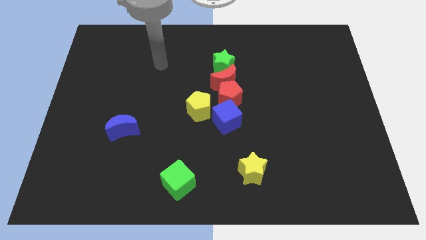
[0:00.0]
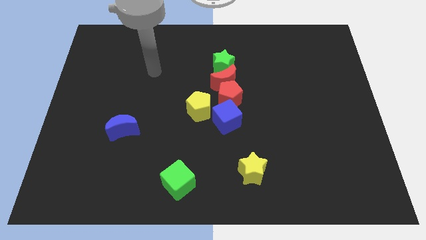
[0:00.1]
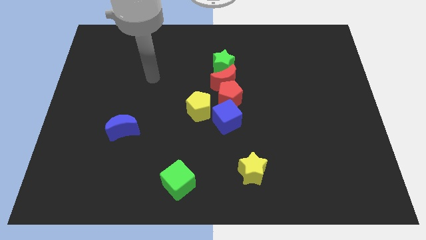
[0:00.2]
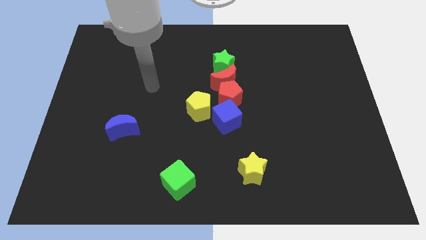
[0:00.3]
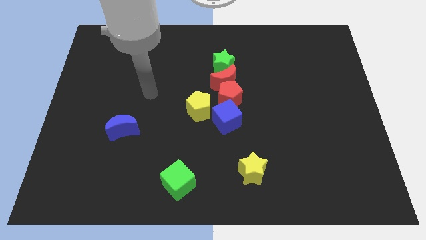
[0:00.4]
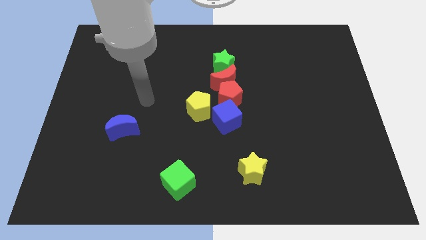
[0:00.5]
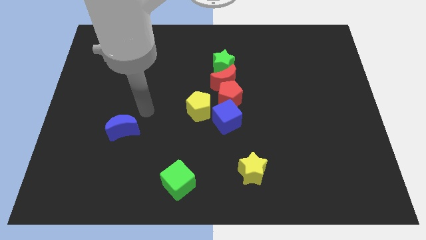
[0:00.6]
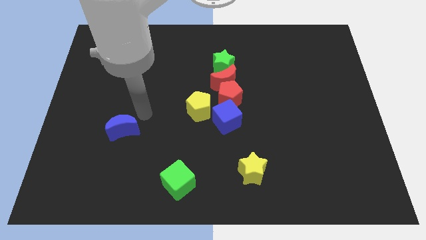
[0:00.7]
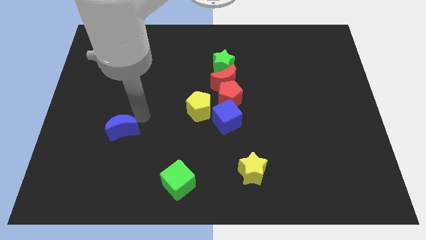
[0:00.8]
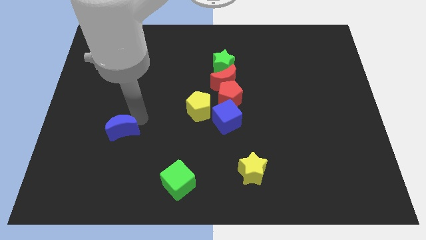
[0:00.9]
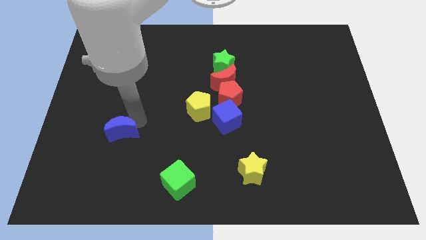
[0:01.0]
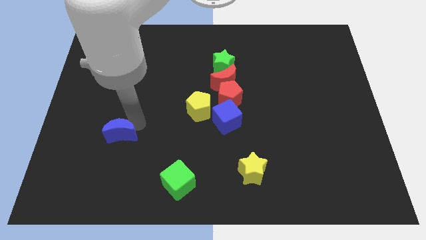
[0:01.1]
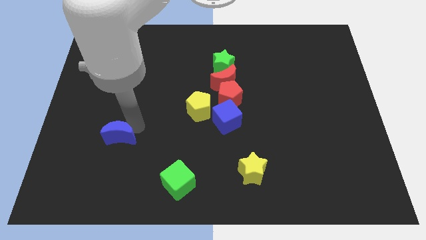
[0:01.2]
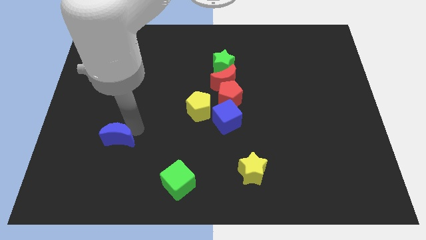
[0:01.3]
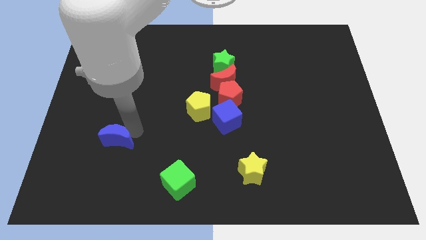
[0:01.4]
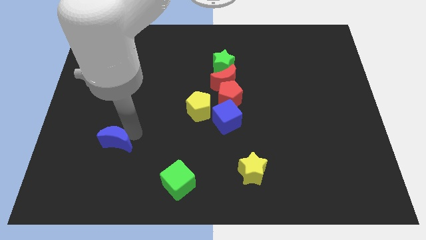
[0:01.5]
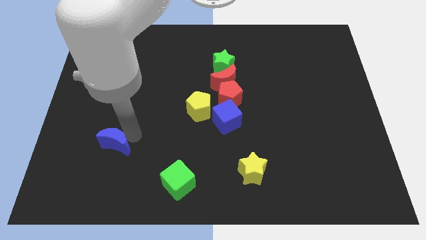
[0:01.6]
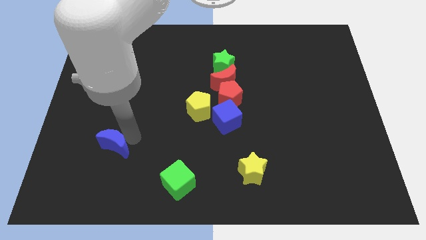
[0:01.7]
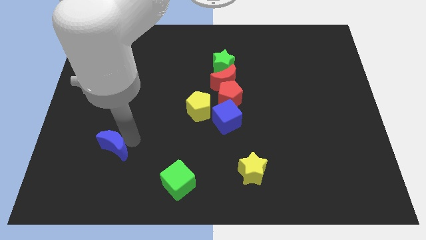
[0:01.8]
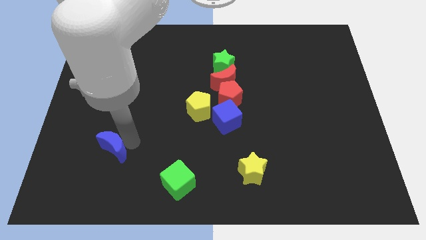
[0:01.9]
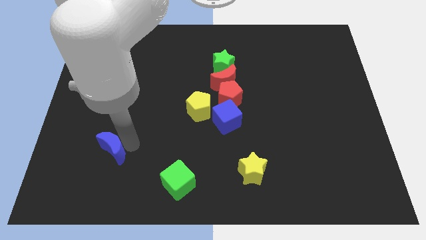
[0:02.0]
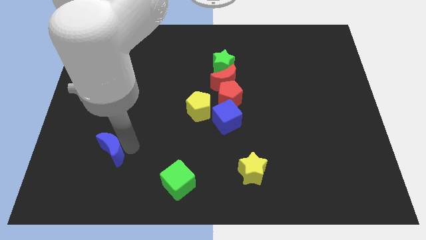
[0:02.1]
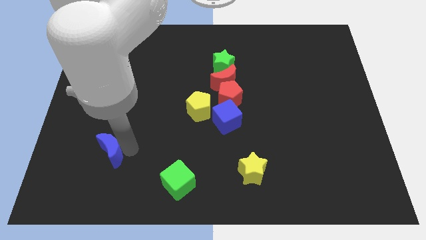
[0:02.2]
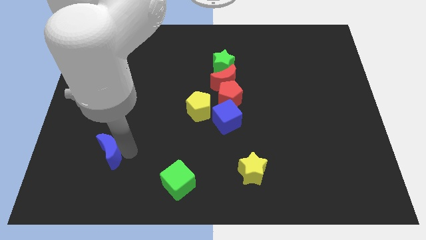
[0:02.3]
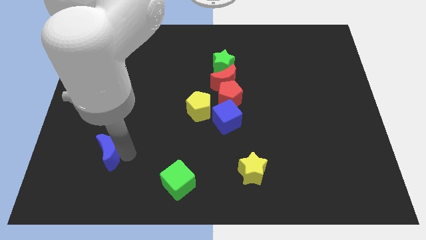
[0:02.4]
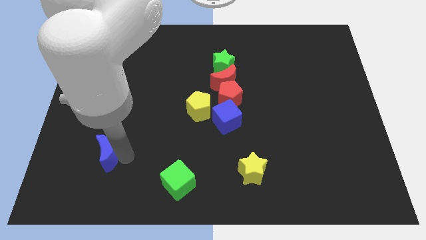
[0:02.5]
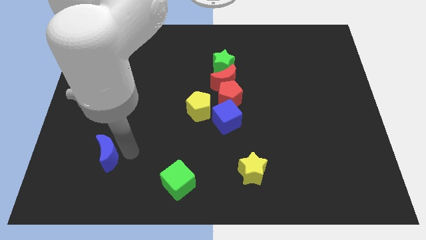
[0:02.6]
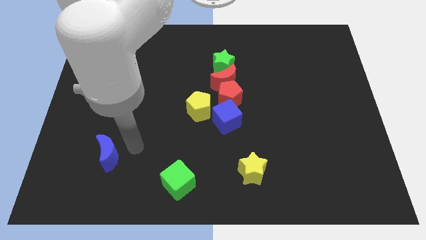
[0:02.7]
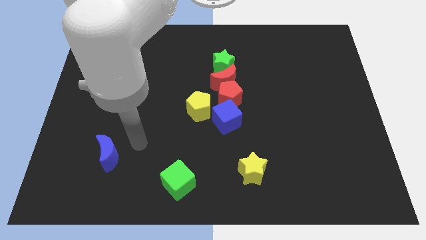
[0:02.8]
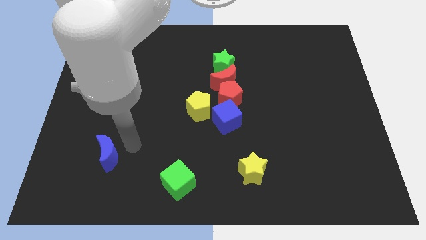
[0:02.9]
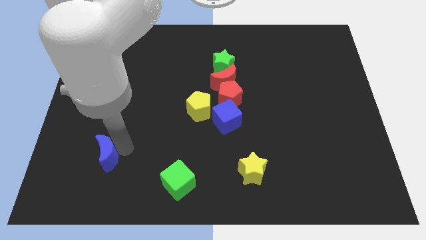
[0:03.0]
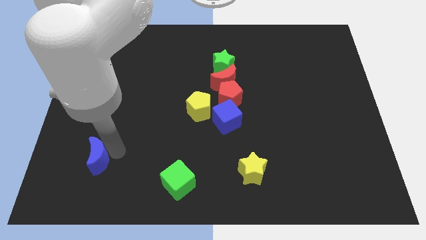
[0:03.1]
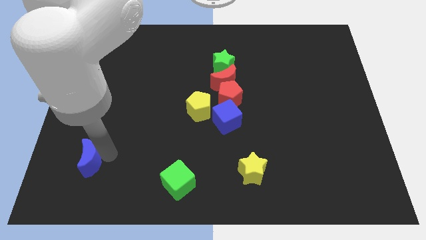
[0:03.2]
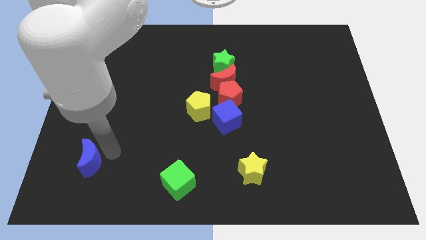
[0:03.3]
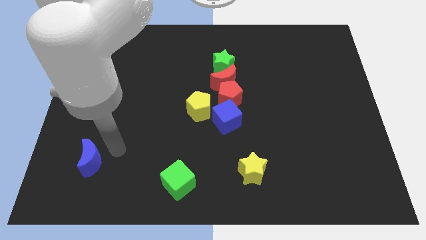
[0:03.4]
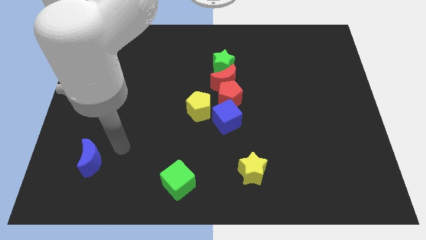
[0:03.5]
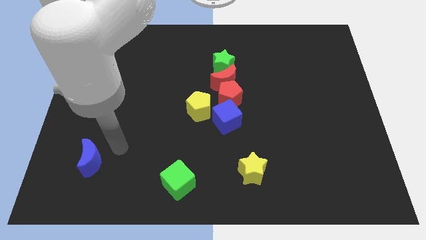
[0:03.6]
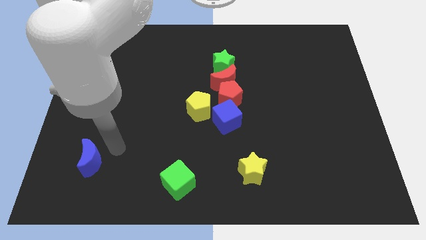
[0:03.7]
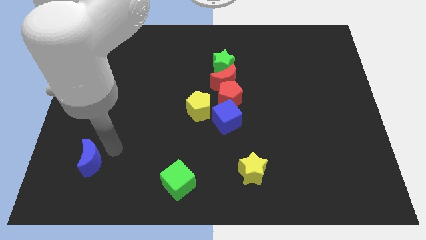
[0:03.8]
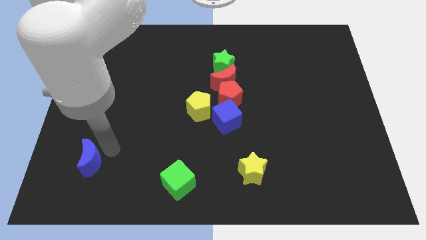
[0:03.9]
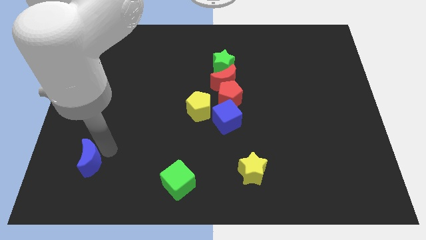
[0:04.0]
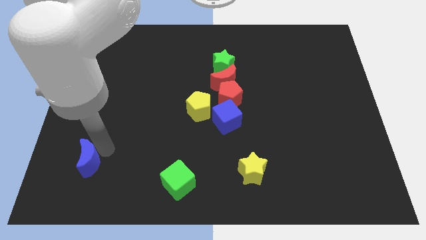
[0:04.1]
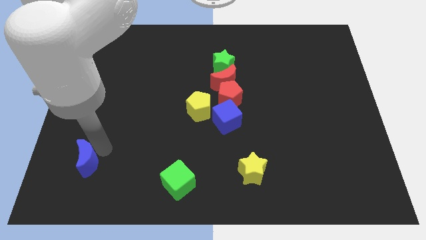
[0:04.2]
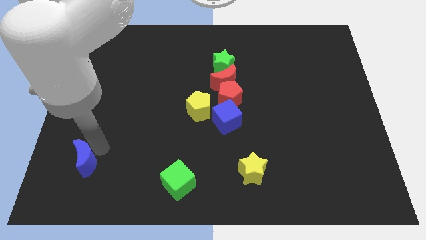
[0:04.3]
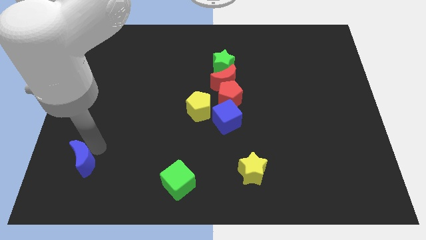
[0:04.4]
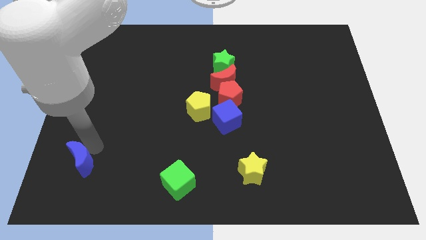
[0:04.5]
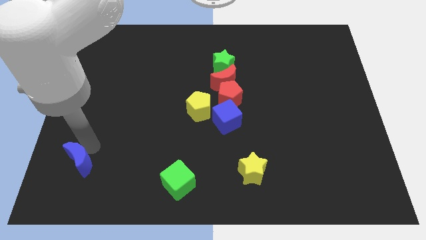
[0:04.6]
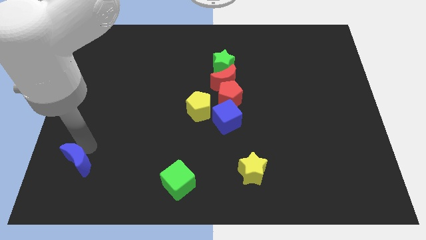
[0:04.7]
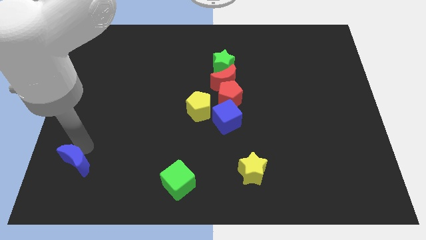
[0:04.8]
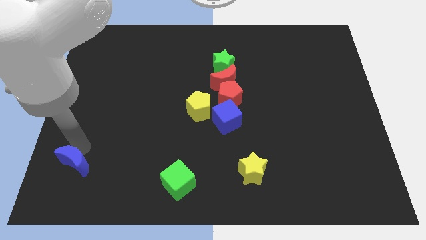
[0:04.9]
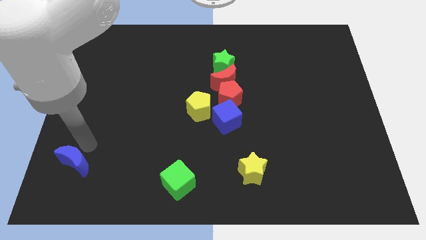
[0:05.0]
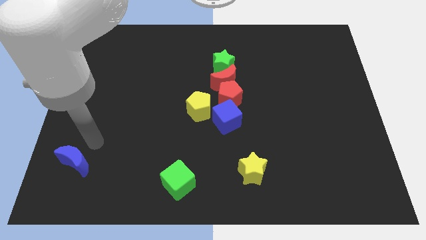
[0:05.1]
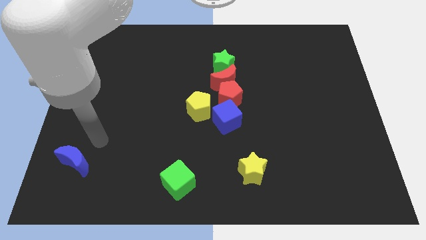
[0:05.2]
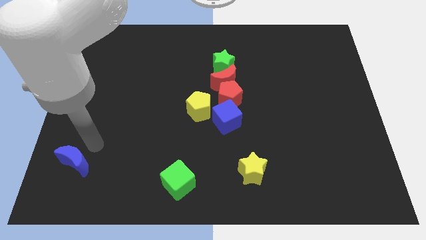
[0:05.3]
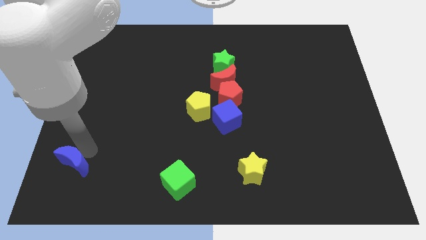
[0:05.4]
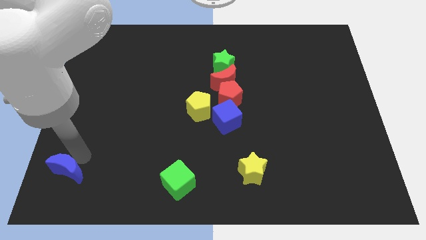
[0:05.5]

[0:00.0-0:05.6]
slide the blue moon to the bottom left corner
